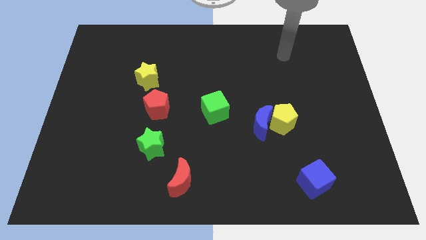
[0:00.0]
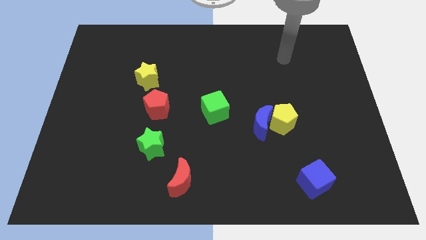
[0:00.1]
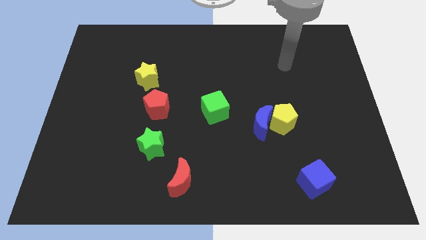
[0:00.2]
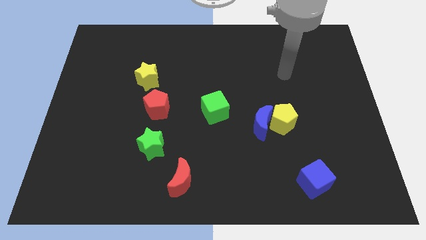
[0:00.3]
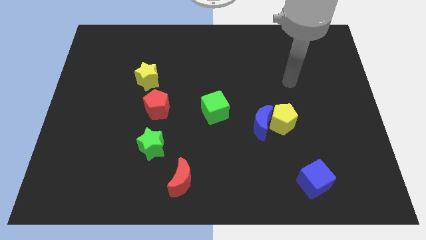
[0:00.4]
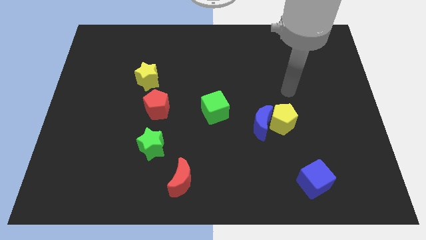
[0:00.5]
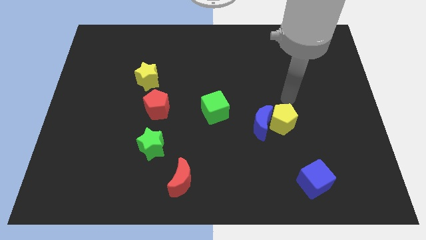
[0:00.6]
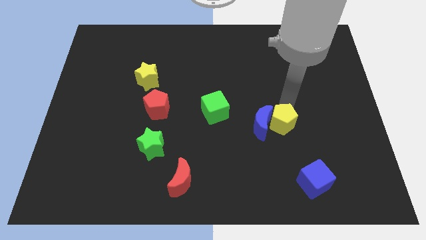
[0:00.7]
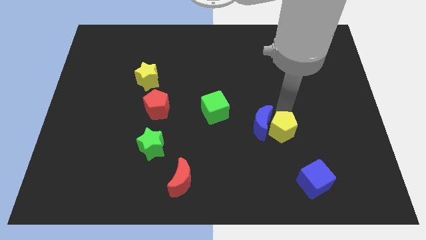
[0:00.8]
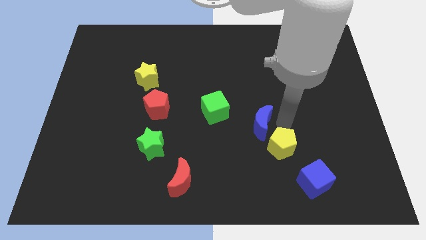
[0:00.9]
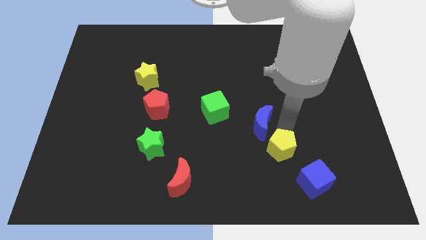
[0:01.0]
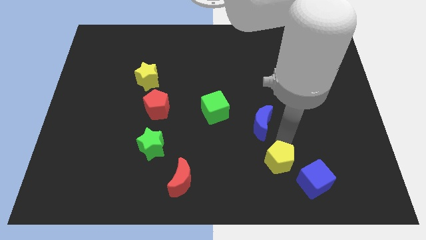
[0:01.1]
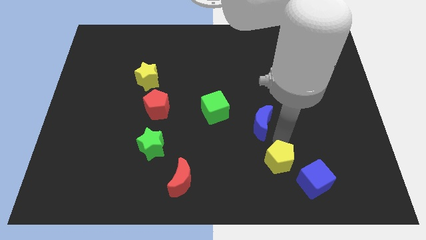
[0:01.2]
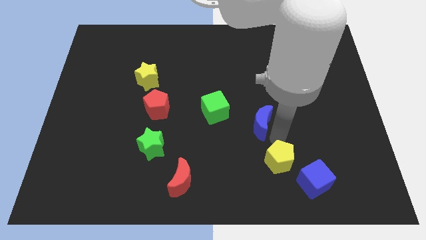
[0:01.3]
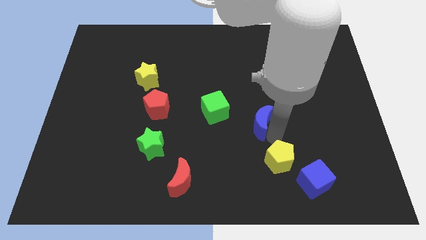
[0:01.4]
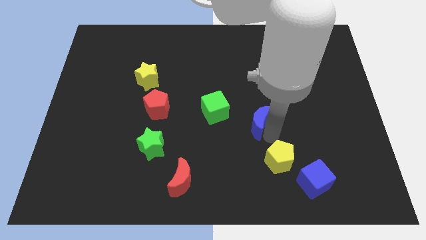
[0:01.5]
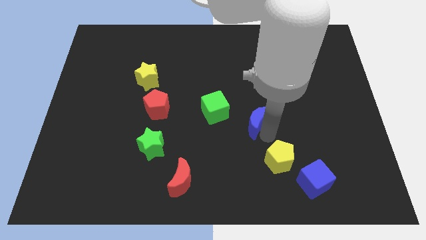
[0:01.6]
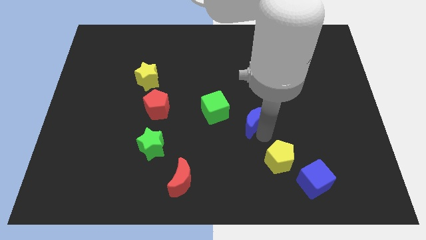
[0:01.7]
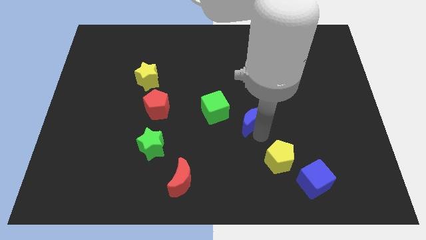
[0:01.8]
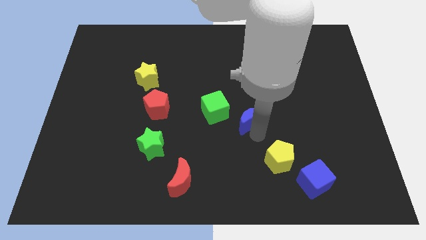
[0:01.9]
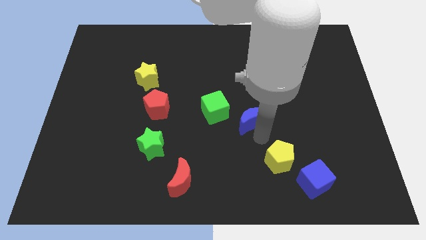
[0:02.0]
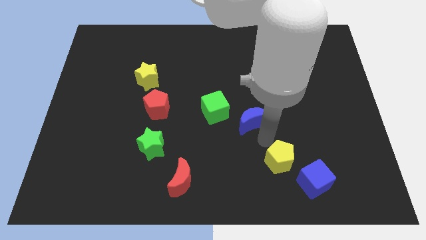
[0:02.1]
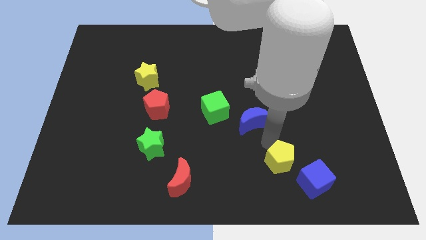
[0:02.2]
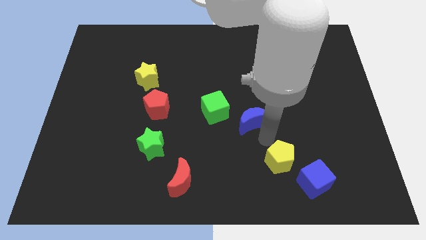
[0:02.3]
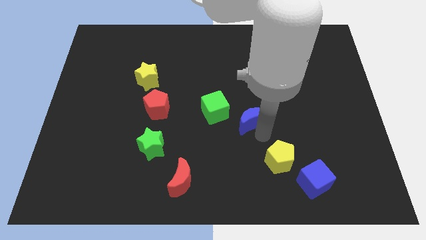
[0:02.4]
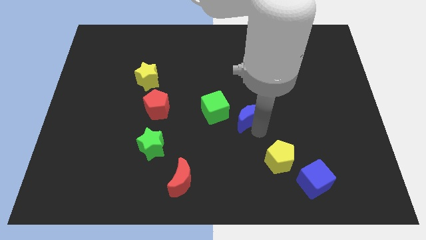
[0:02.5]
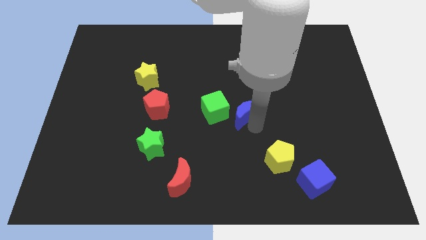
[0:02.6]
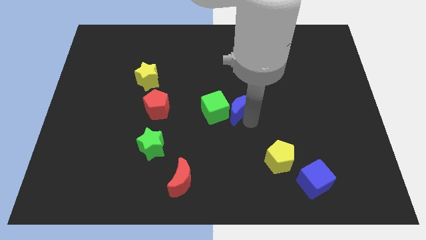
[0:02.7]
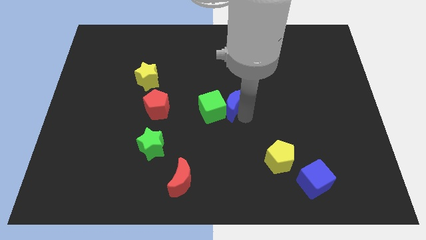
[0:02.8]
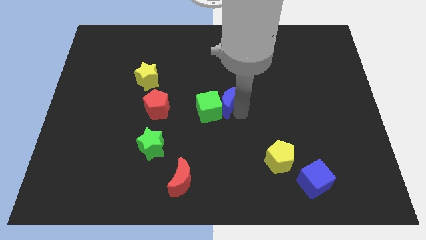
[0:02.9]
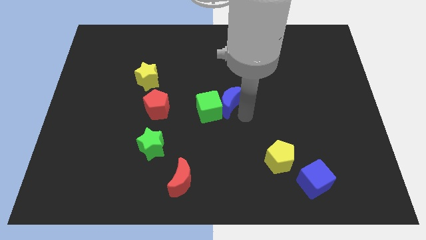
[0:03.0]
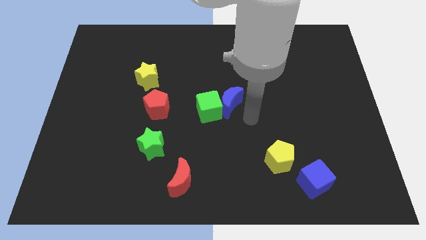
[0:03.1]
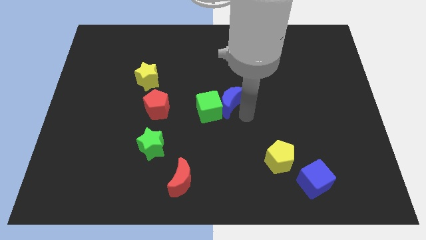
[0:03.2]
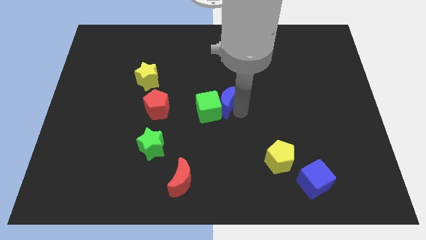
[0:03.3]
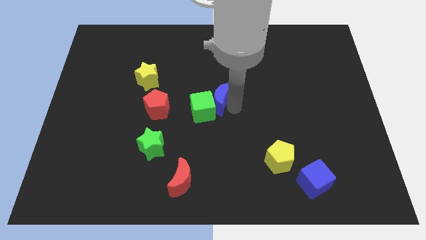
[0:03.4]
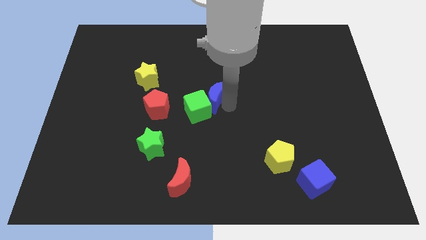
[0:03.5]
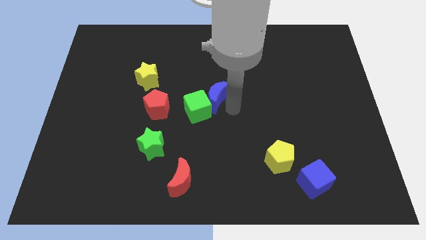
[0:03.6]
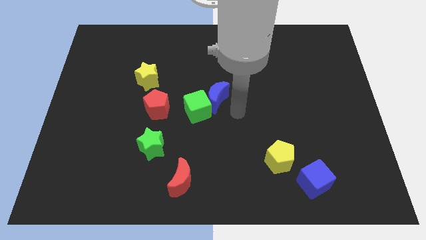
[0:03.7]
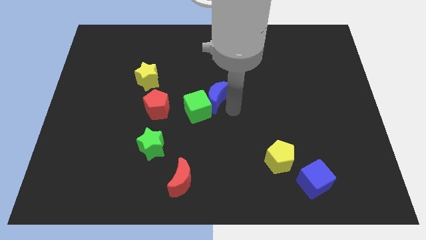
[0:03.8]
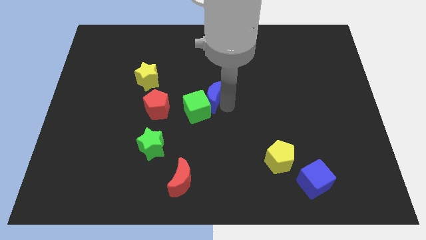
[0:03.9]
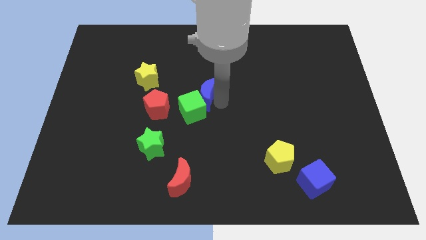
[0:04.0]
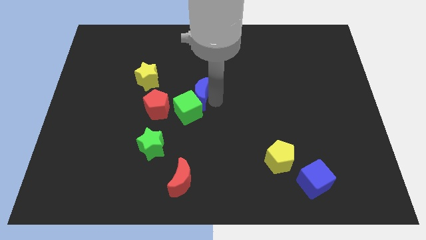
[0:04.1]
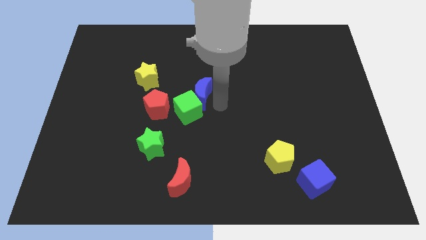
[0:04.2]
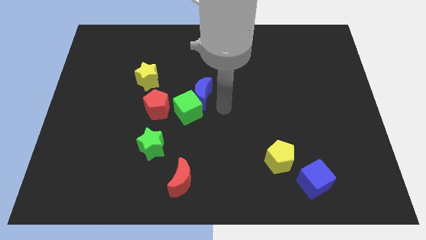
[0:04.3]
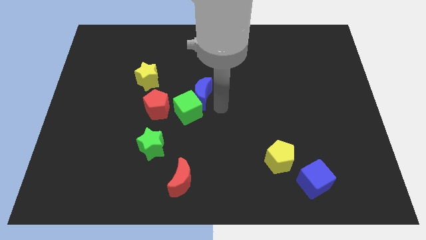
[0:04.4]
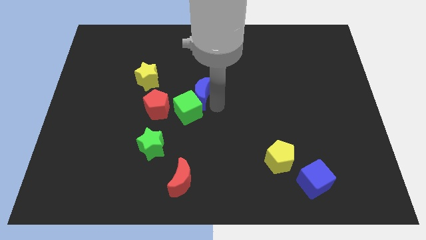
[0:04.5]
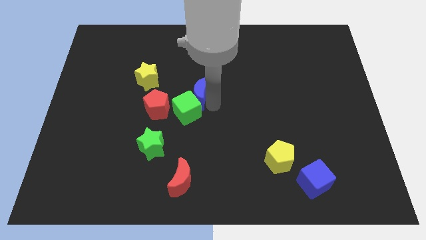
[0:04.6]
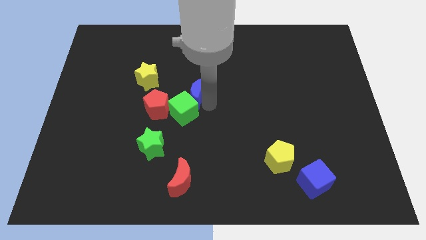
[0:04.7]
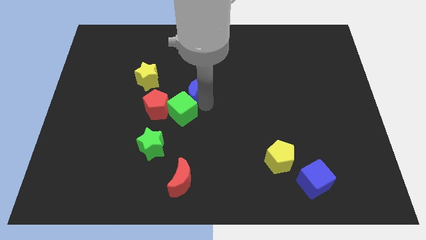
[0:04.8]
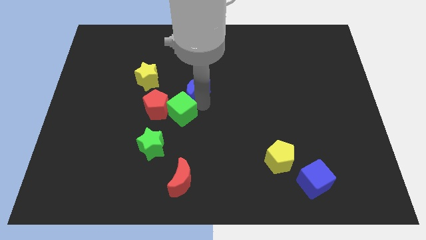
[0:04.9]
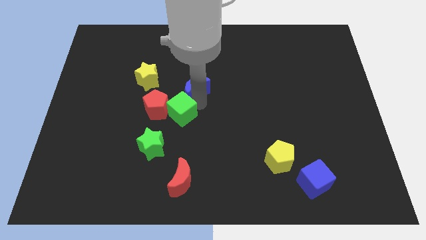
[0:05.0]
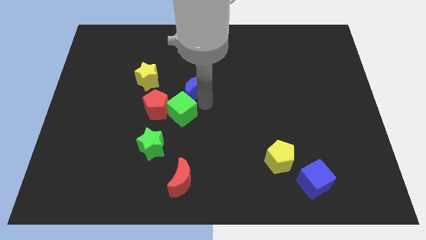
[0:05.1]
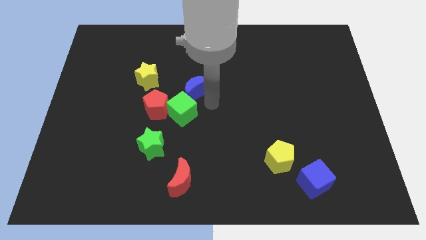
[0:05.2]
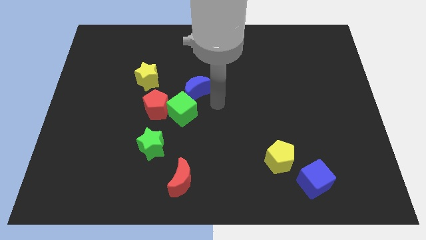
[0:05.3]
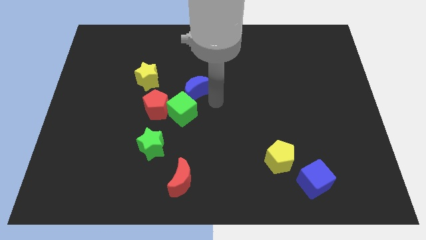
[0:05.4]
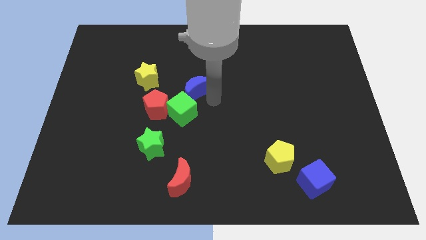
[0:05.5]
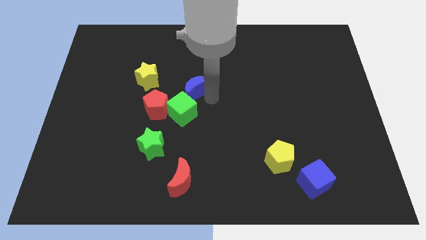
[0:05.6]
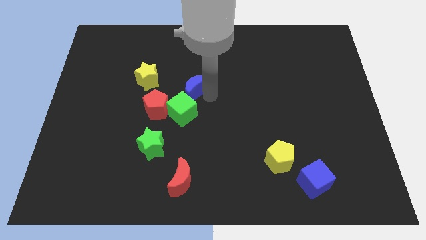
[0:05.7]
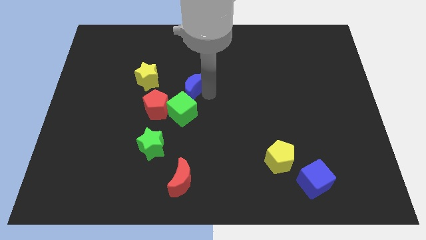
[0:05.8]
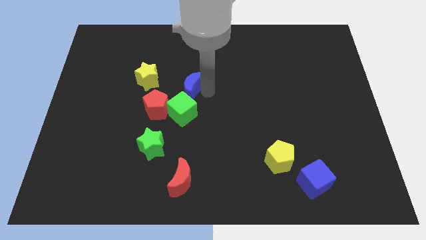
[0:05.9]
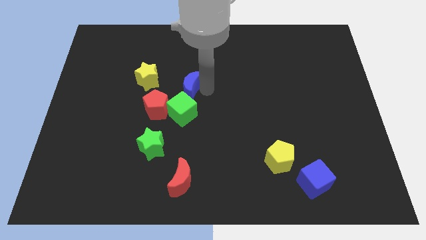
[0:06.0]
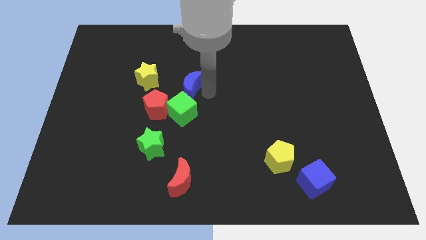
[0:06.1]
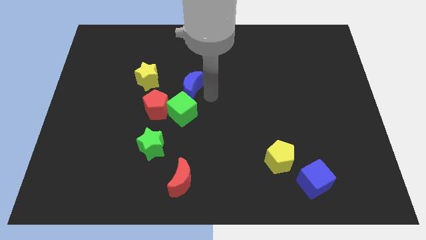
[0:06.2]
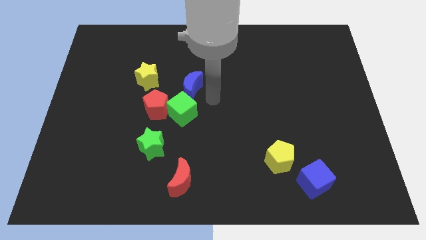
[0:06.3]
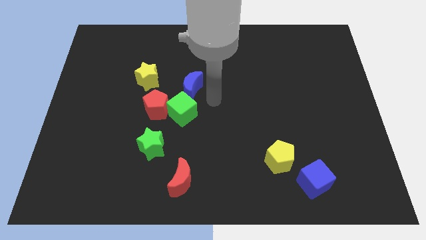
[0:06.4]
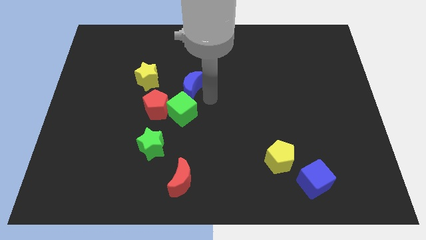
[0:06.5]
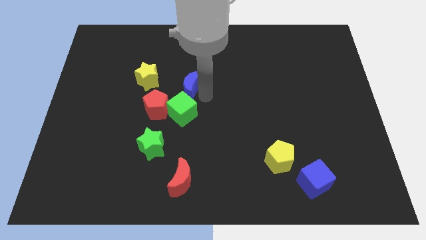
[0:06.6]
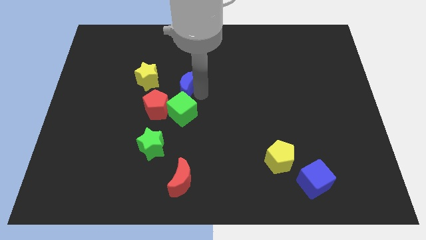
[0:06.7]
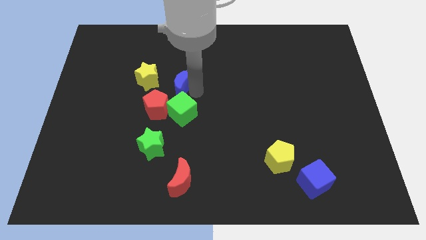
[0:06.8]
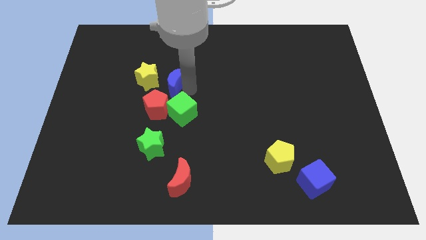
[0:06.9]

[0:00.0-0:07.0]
slide the blue moon above the red pentagon

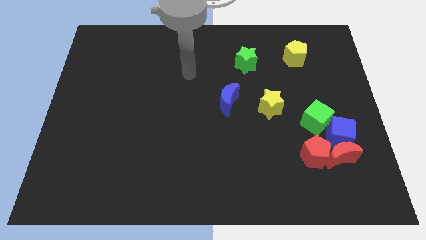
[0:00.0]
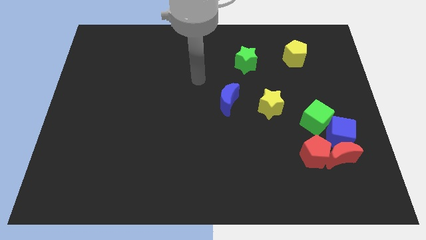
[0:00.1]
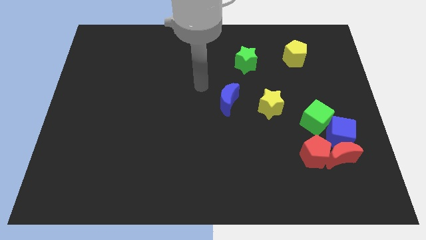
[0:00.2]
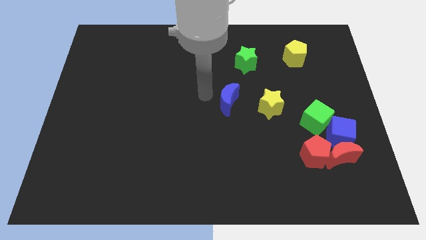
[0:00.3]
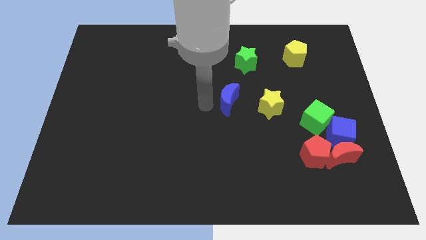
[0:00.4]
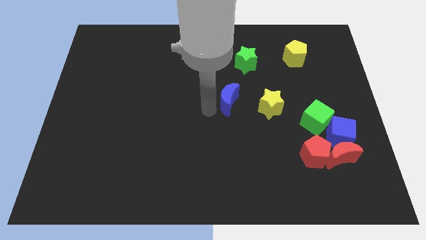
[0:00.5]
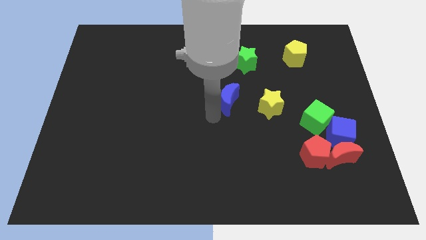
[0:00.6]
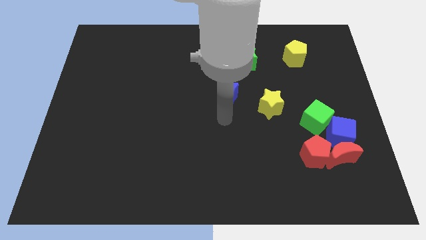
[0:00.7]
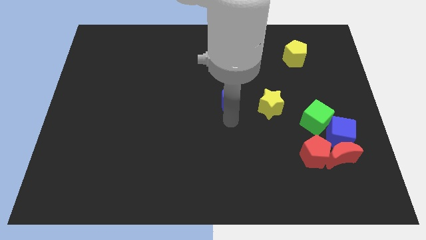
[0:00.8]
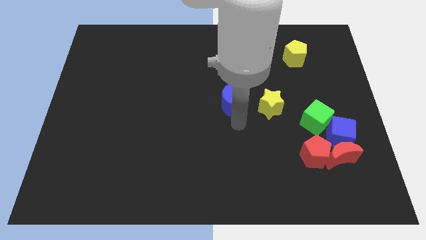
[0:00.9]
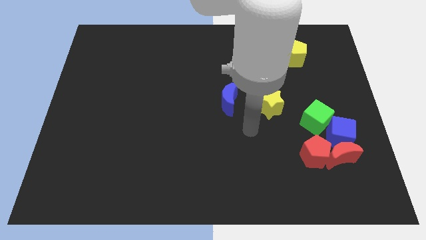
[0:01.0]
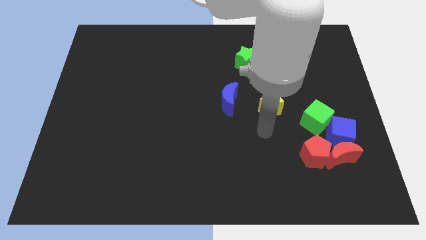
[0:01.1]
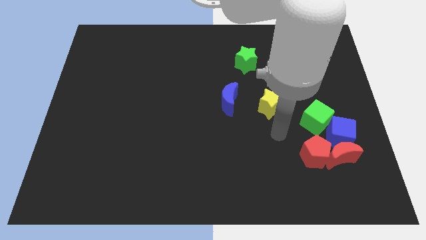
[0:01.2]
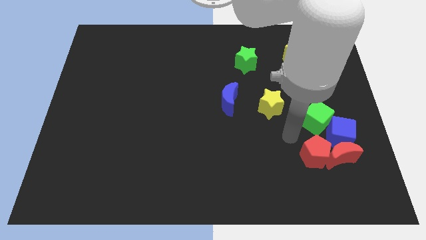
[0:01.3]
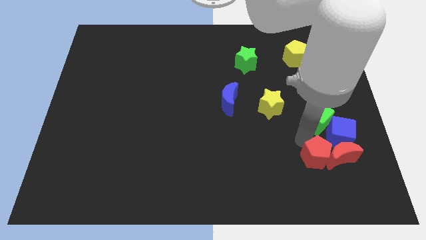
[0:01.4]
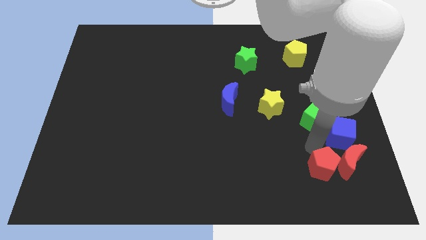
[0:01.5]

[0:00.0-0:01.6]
slide the blue cube to the top of the red pentagon
